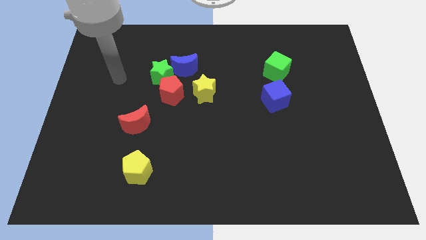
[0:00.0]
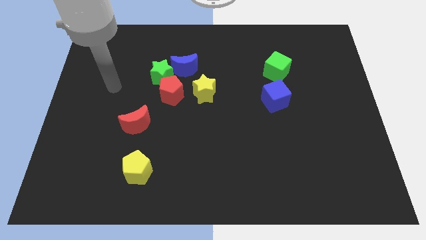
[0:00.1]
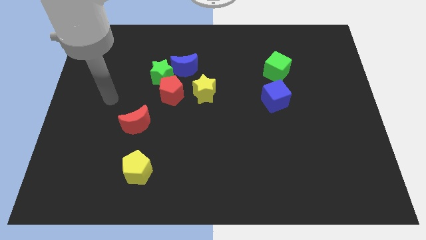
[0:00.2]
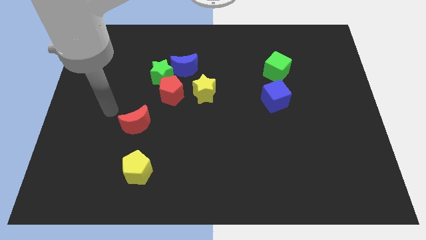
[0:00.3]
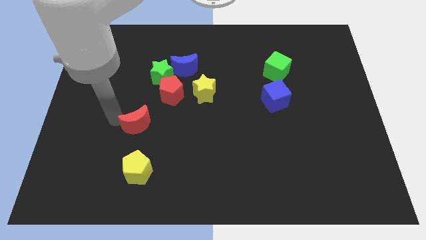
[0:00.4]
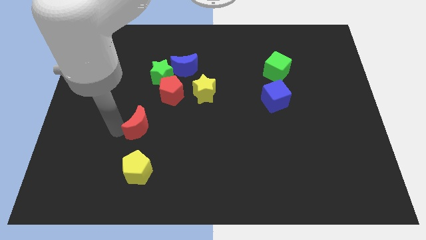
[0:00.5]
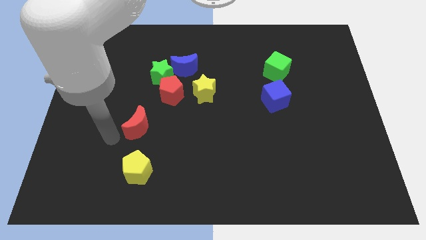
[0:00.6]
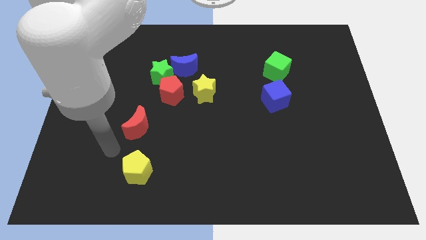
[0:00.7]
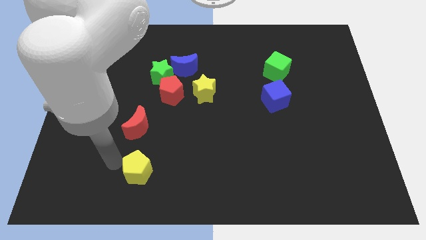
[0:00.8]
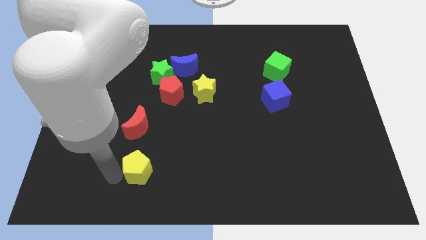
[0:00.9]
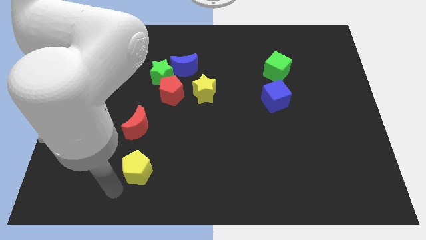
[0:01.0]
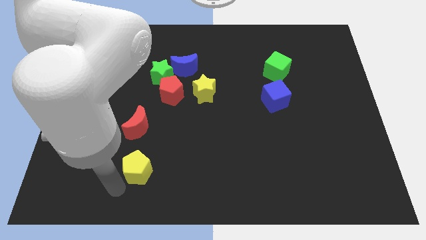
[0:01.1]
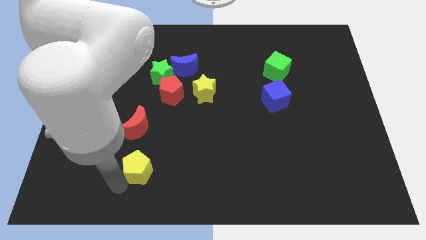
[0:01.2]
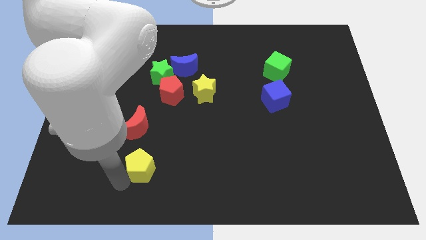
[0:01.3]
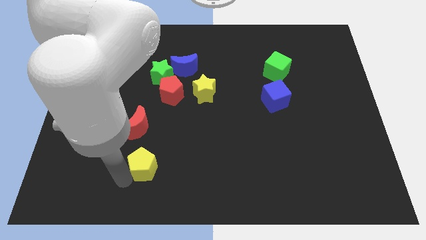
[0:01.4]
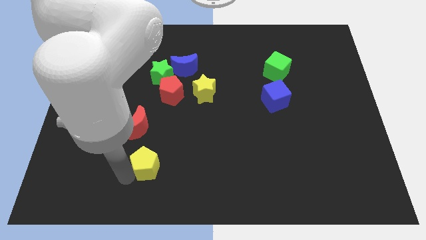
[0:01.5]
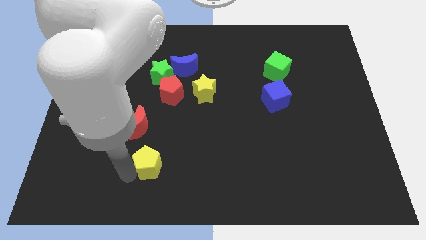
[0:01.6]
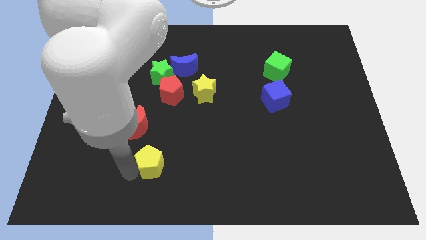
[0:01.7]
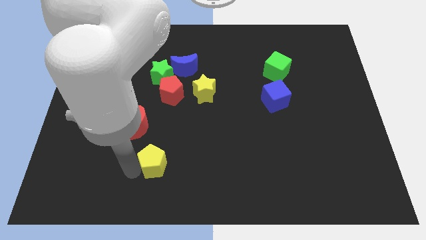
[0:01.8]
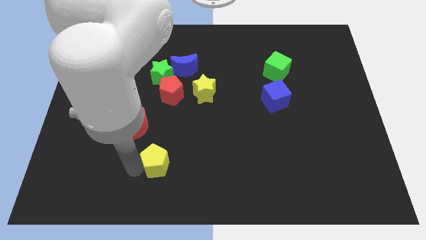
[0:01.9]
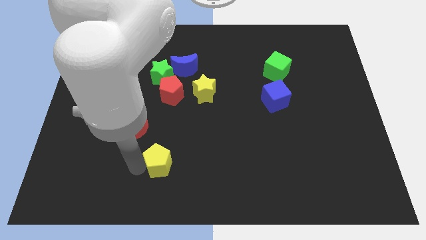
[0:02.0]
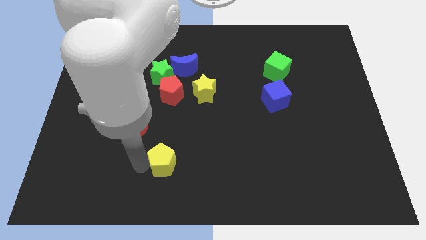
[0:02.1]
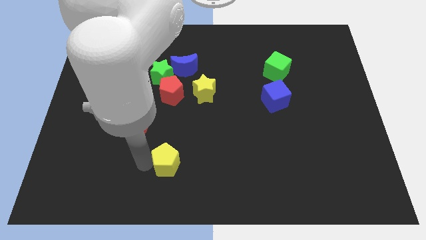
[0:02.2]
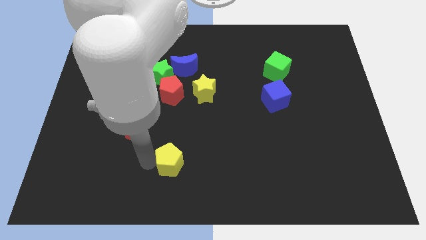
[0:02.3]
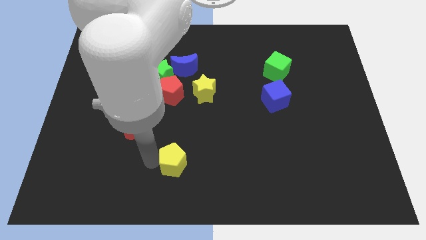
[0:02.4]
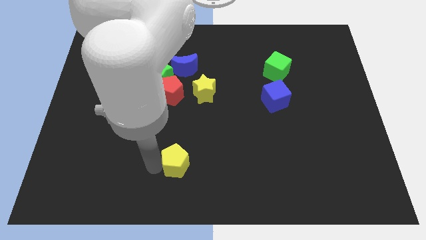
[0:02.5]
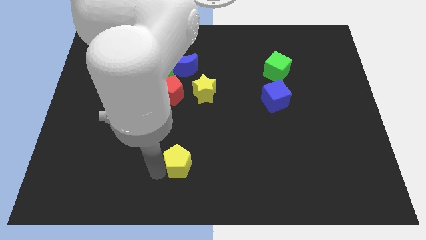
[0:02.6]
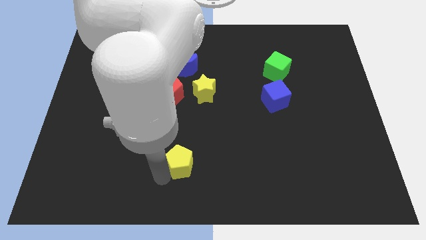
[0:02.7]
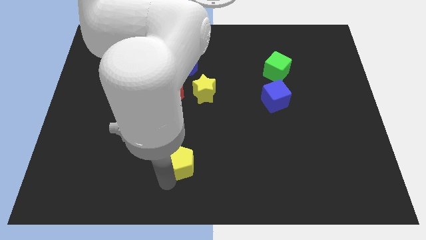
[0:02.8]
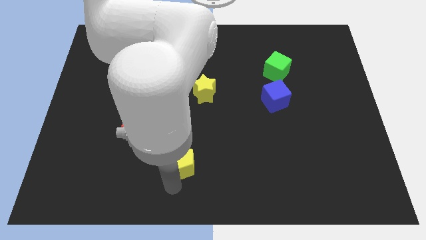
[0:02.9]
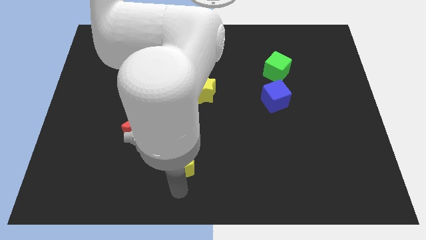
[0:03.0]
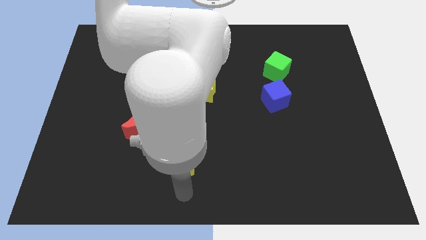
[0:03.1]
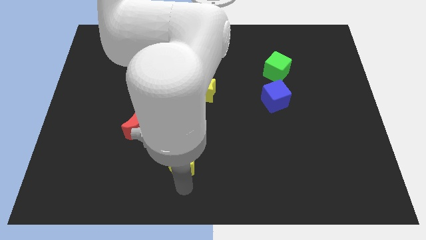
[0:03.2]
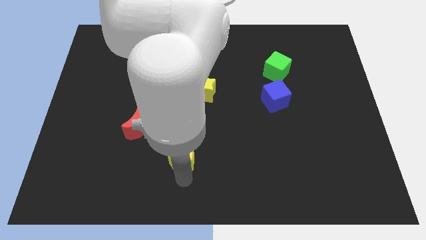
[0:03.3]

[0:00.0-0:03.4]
slightly push the yellow pentagon upwards and right

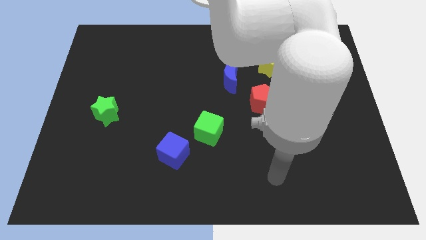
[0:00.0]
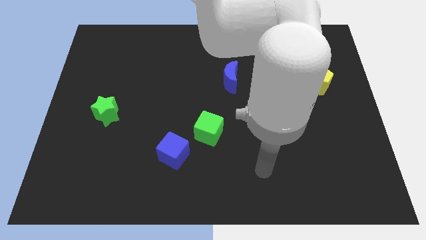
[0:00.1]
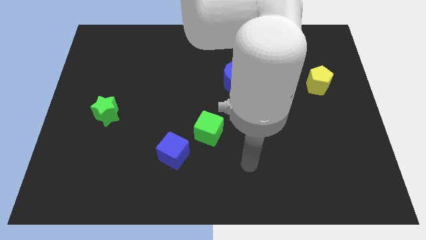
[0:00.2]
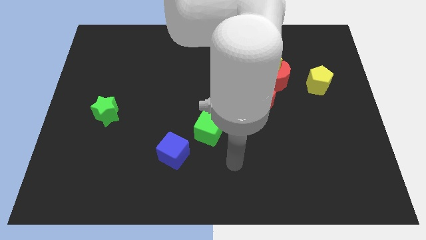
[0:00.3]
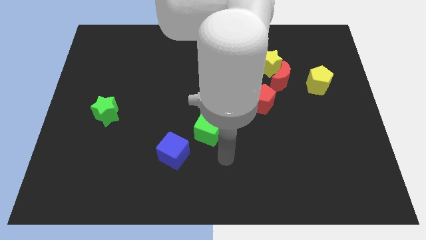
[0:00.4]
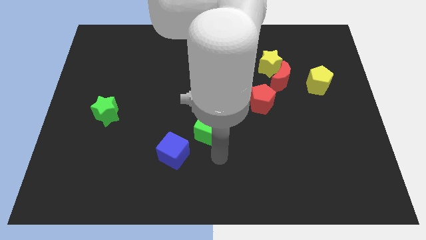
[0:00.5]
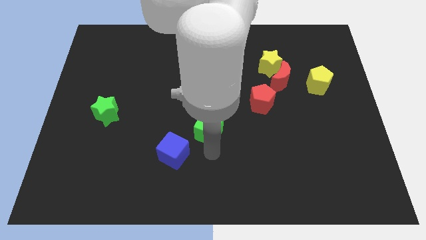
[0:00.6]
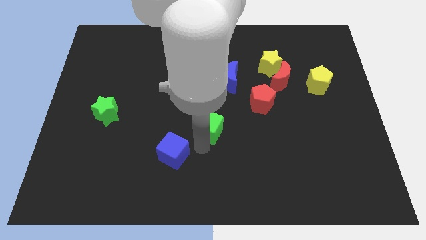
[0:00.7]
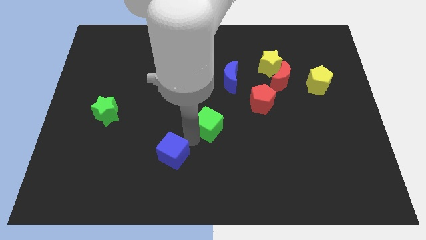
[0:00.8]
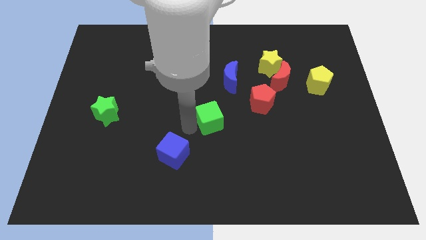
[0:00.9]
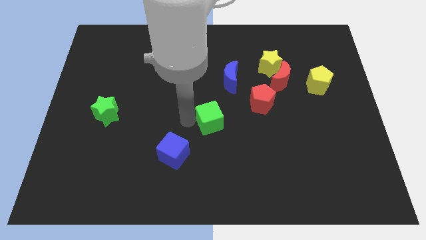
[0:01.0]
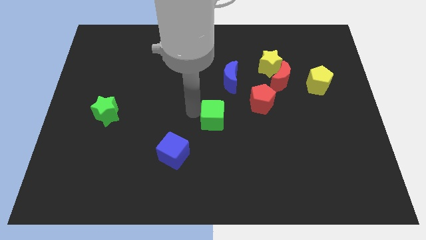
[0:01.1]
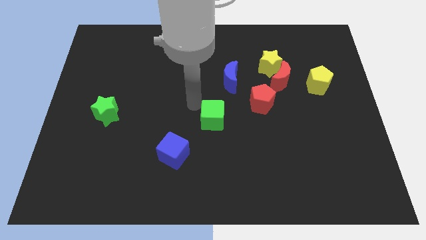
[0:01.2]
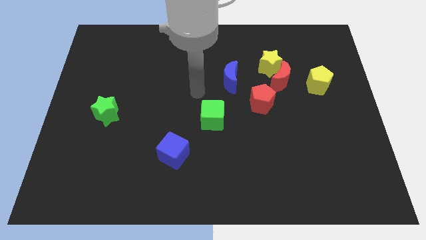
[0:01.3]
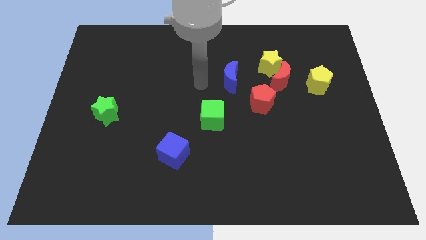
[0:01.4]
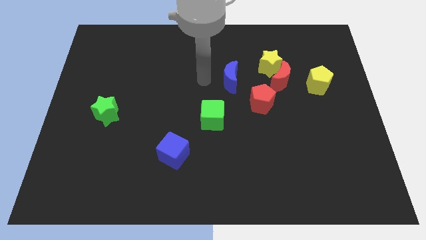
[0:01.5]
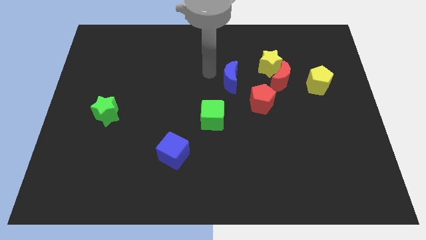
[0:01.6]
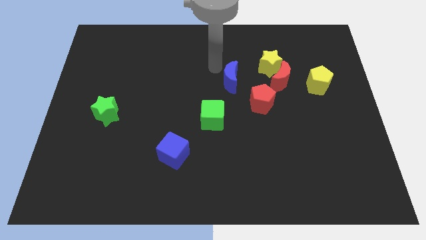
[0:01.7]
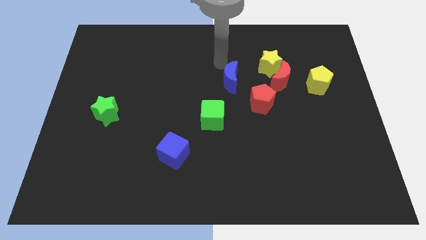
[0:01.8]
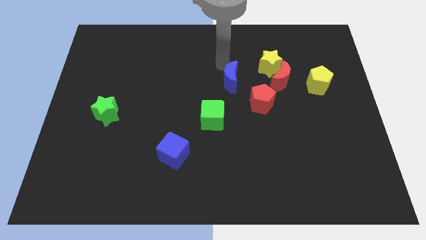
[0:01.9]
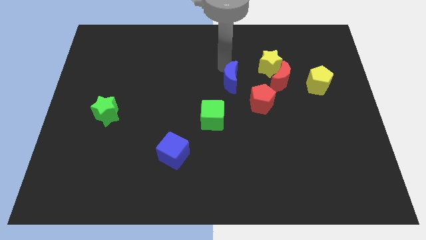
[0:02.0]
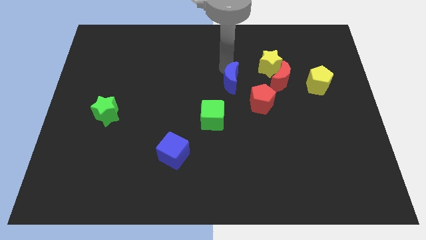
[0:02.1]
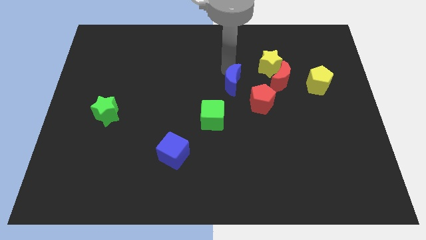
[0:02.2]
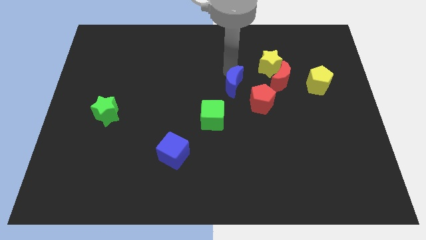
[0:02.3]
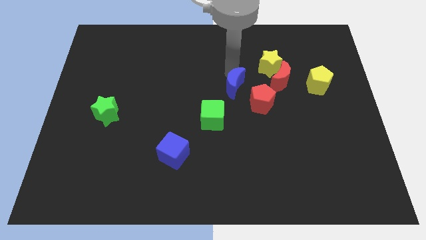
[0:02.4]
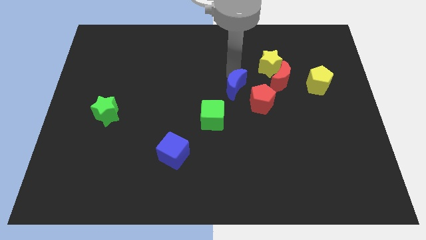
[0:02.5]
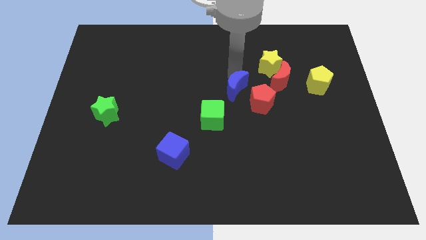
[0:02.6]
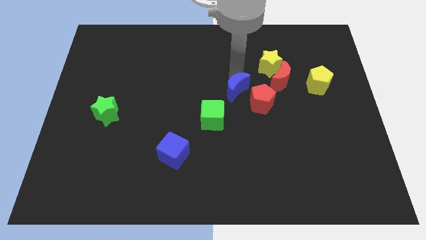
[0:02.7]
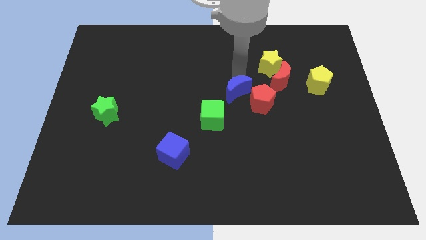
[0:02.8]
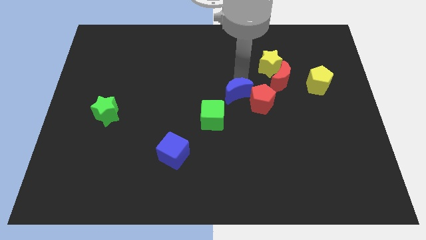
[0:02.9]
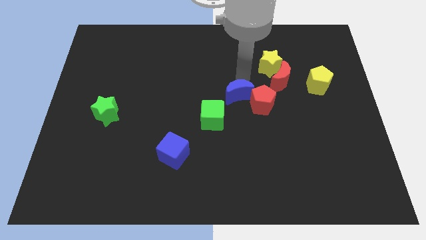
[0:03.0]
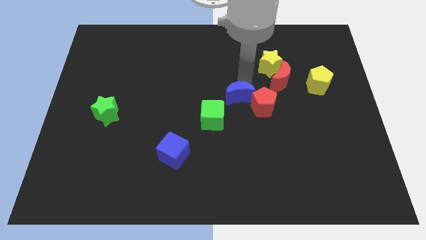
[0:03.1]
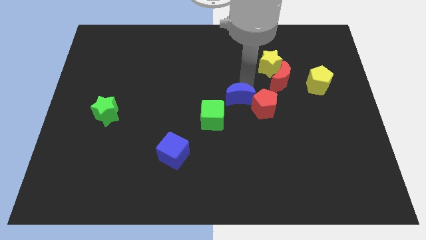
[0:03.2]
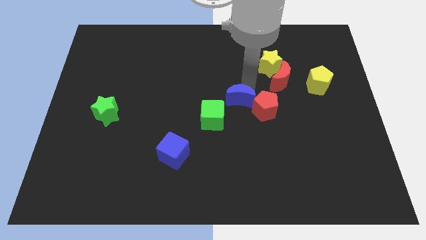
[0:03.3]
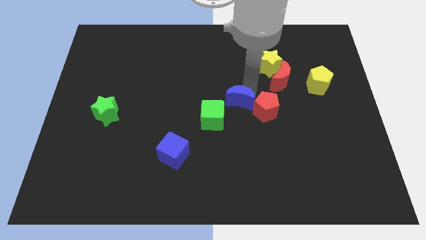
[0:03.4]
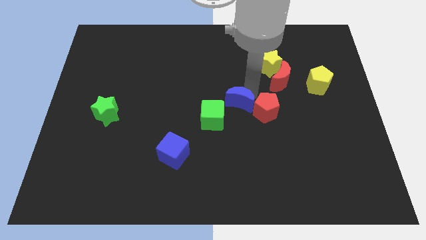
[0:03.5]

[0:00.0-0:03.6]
move the blue moon downwards somewhat

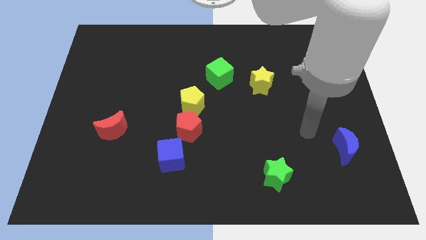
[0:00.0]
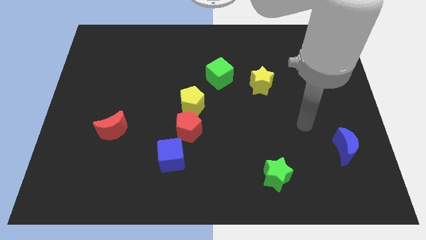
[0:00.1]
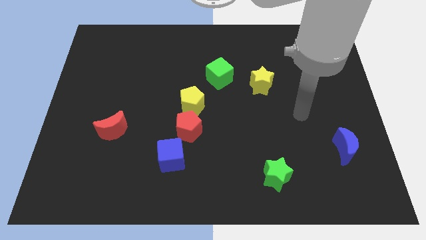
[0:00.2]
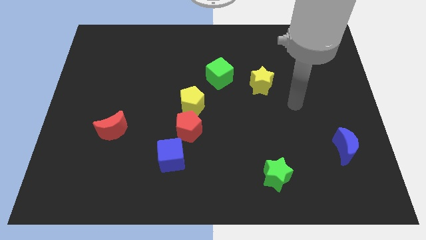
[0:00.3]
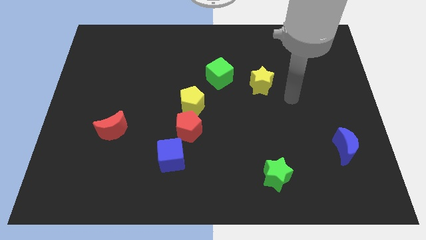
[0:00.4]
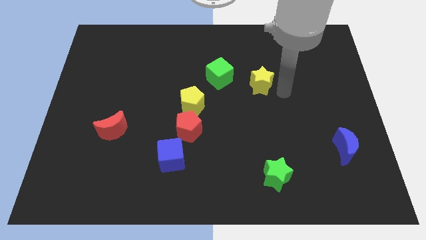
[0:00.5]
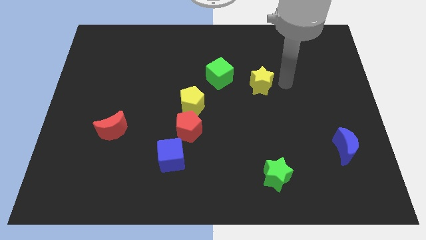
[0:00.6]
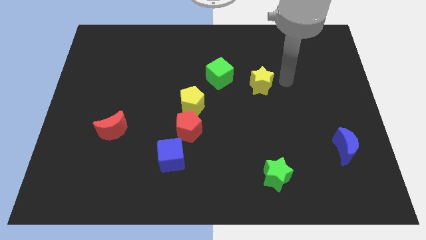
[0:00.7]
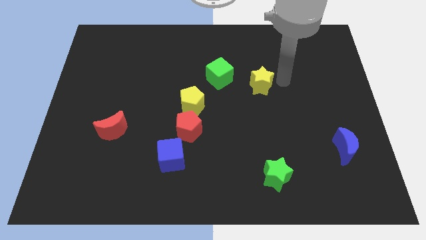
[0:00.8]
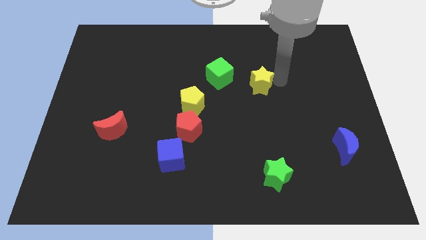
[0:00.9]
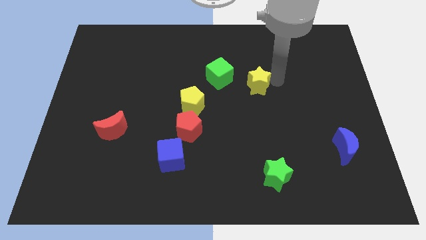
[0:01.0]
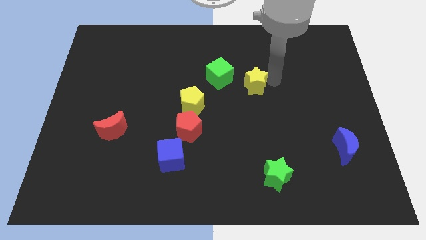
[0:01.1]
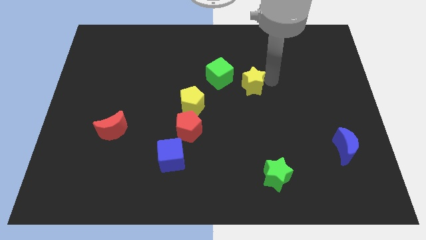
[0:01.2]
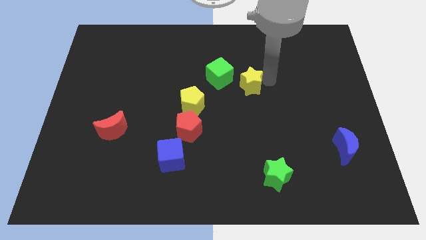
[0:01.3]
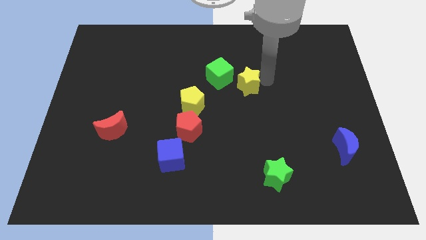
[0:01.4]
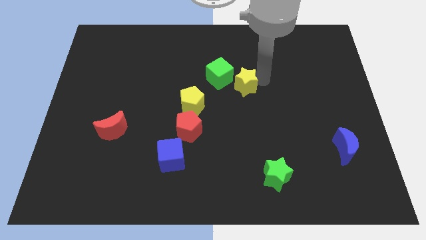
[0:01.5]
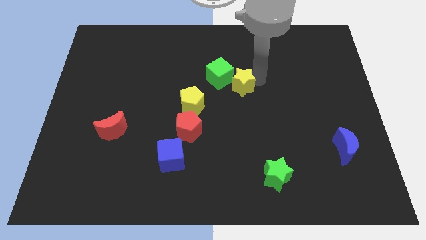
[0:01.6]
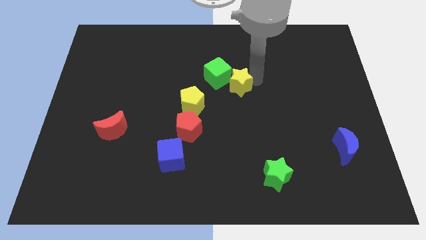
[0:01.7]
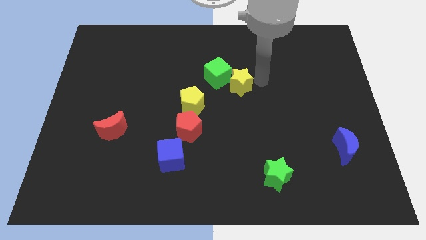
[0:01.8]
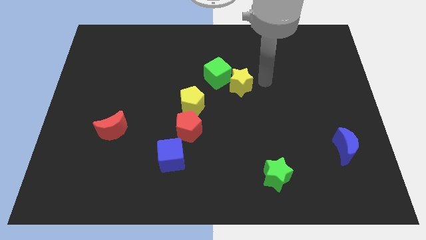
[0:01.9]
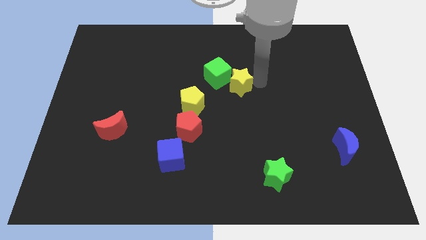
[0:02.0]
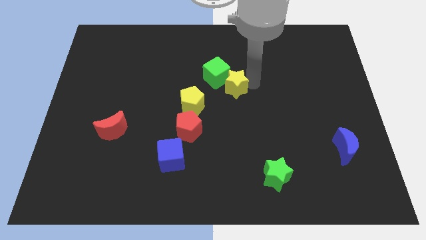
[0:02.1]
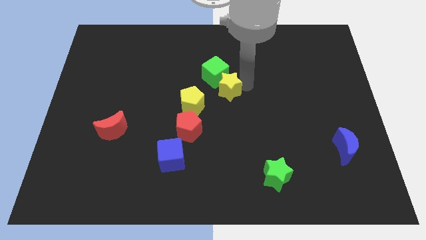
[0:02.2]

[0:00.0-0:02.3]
move the yellow star a bit left
